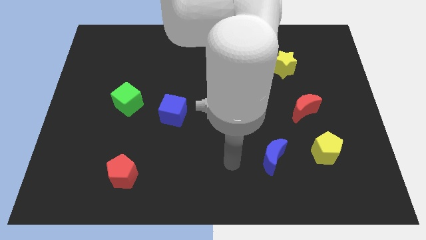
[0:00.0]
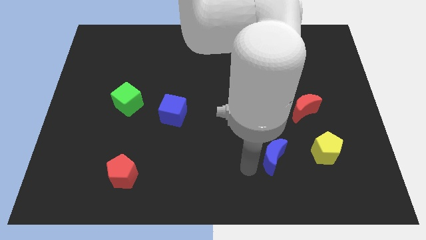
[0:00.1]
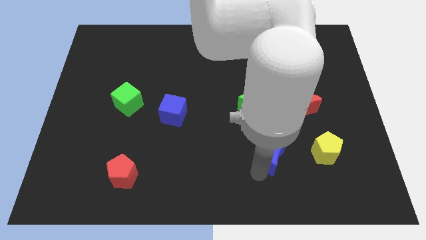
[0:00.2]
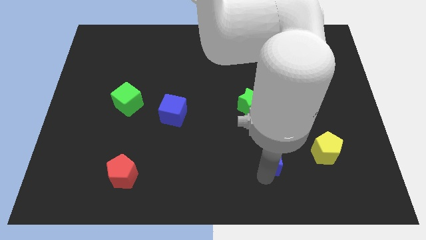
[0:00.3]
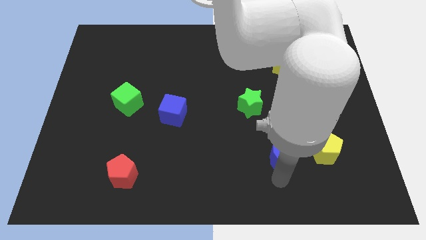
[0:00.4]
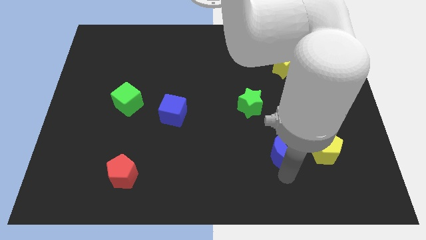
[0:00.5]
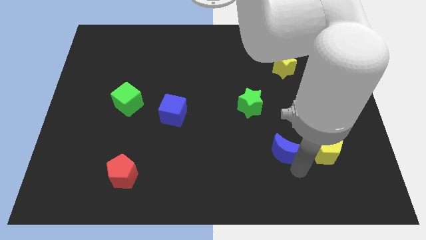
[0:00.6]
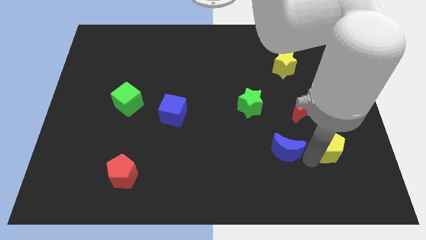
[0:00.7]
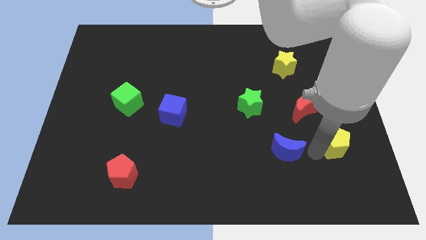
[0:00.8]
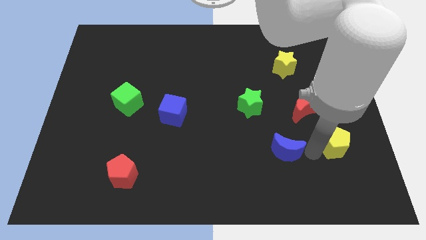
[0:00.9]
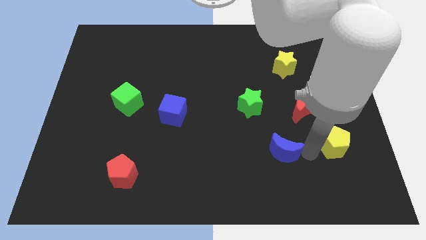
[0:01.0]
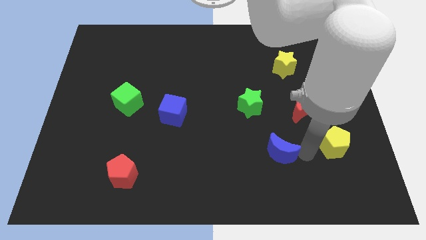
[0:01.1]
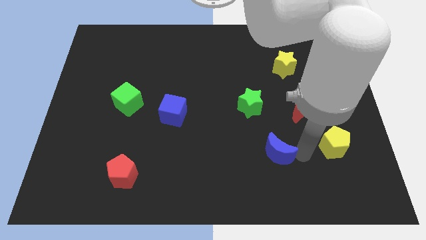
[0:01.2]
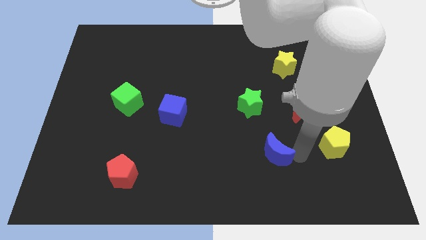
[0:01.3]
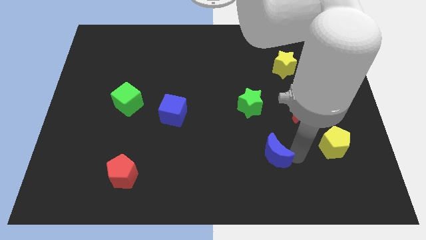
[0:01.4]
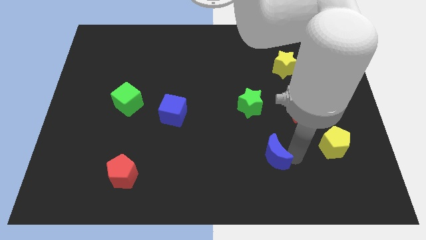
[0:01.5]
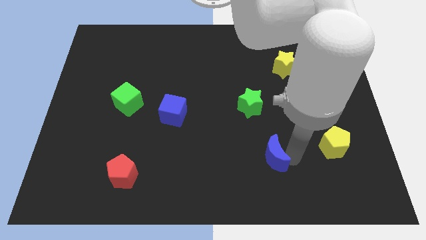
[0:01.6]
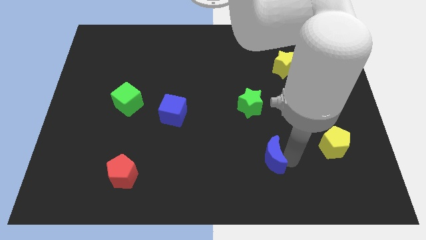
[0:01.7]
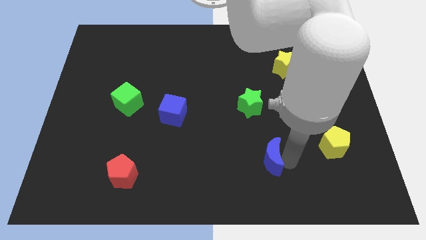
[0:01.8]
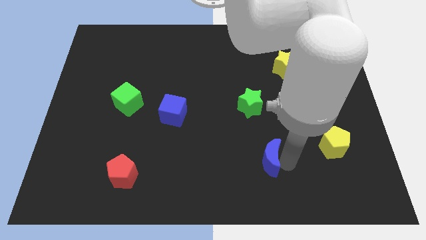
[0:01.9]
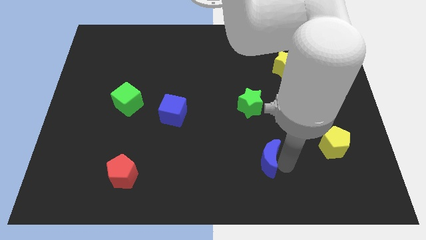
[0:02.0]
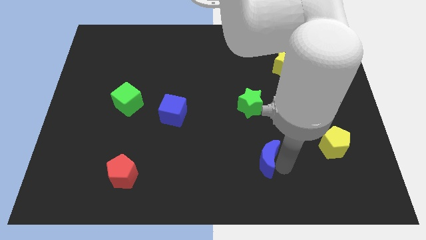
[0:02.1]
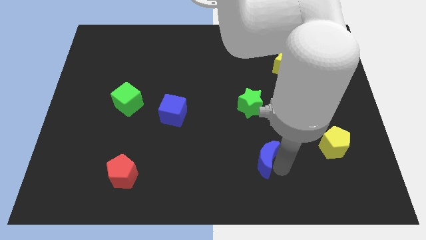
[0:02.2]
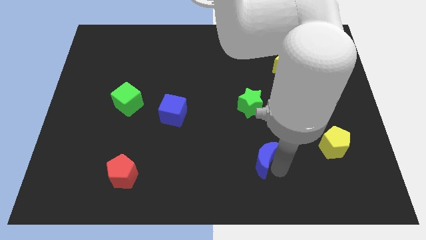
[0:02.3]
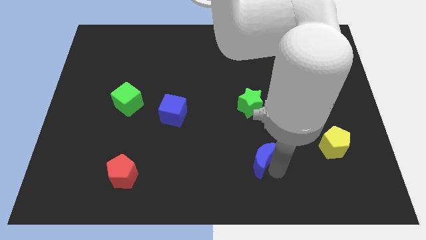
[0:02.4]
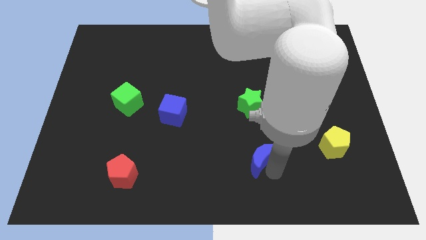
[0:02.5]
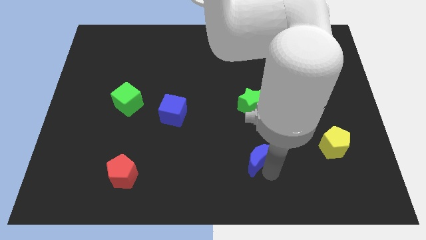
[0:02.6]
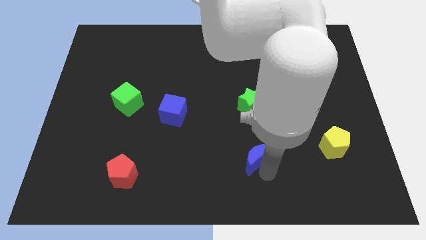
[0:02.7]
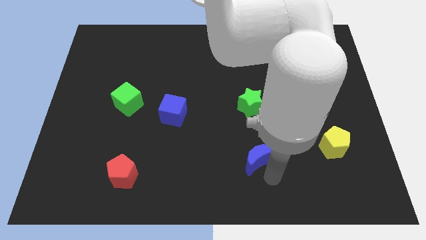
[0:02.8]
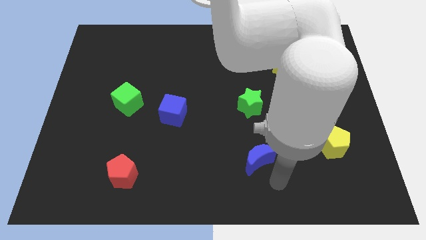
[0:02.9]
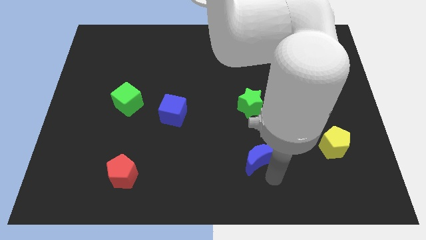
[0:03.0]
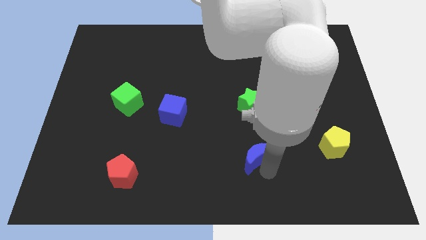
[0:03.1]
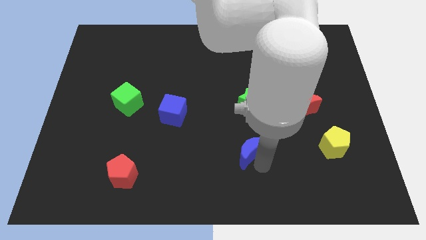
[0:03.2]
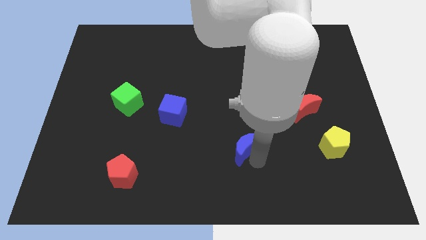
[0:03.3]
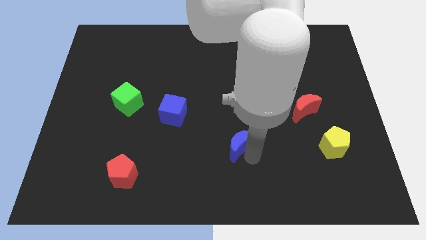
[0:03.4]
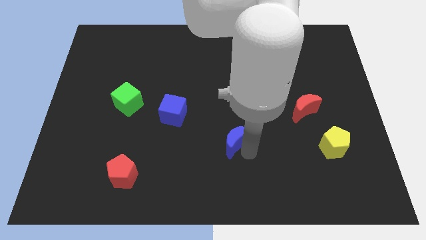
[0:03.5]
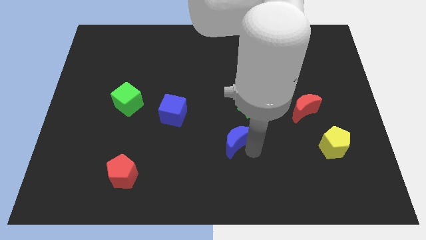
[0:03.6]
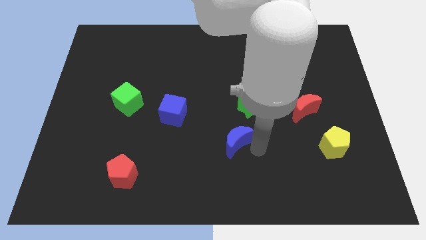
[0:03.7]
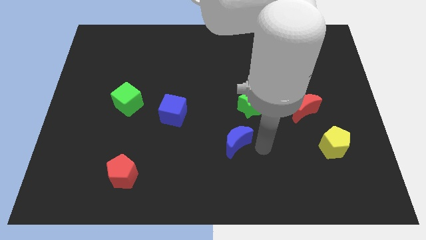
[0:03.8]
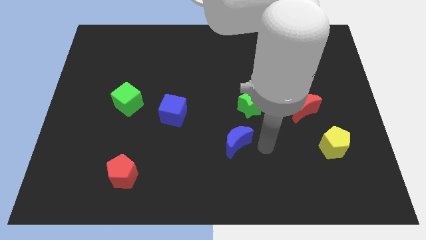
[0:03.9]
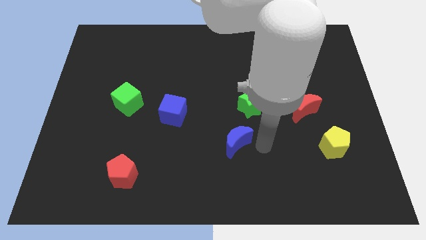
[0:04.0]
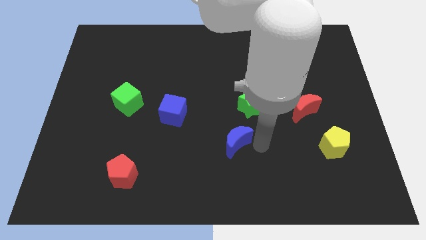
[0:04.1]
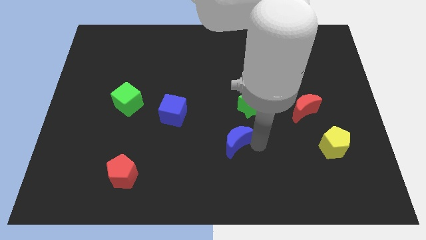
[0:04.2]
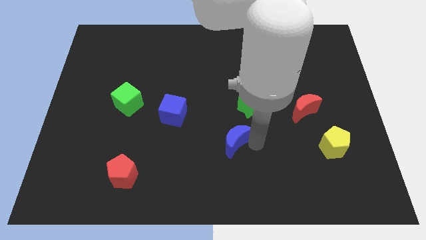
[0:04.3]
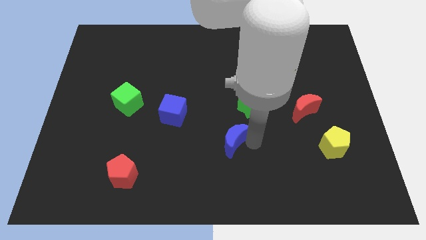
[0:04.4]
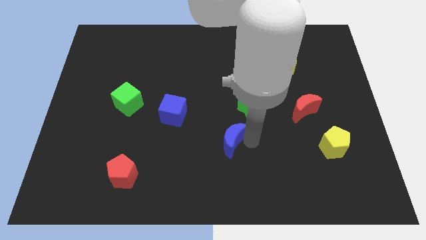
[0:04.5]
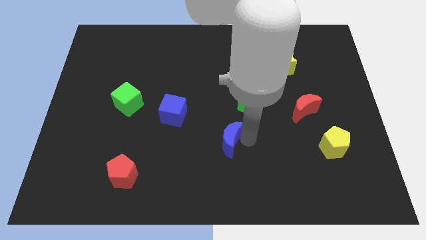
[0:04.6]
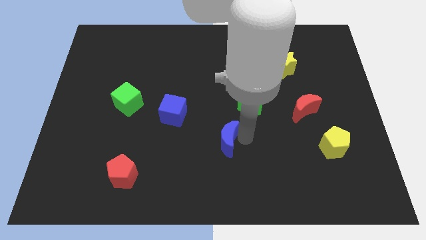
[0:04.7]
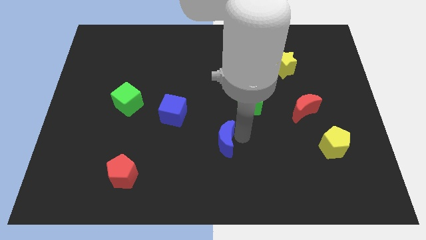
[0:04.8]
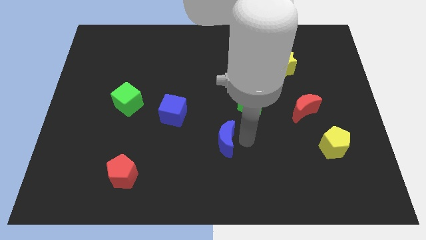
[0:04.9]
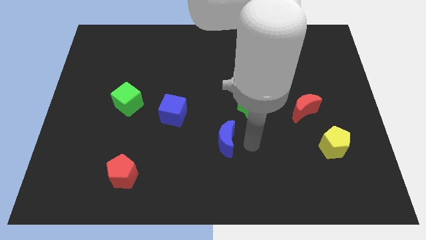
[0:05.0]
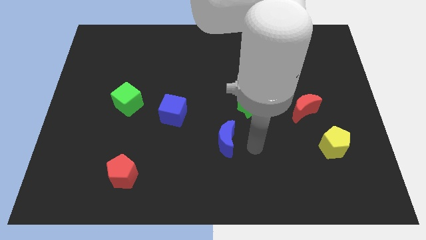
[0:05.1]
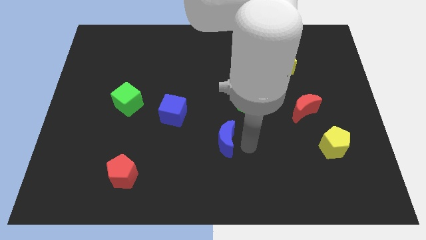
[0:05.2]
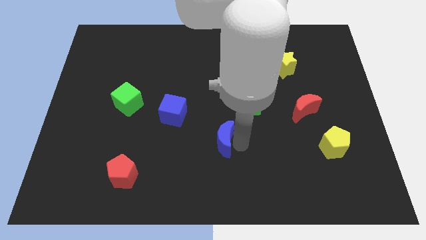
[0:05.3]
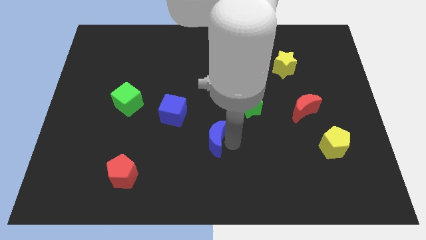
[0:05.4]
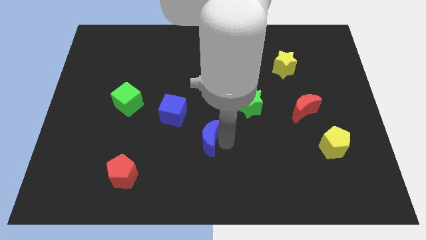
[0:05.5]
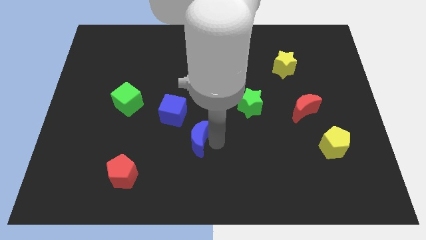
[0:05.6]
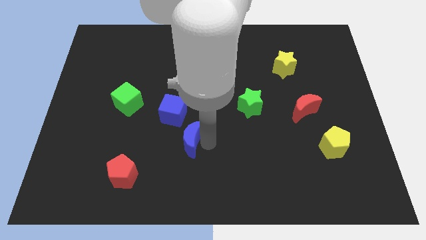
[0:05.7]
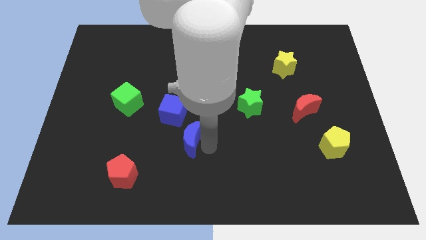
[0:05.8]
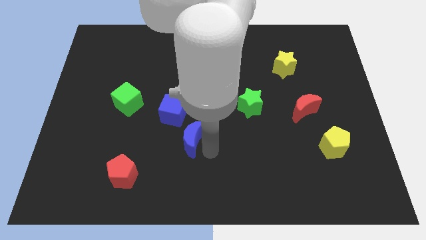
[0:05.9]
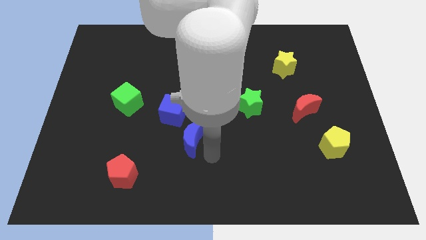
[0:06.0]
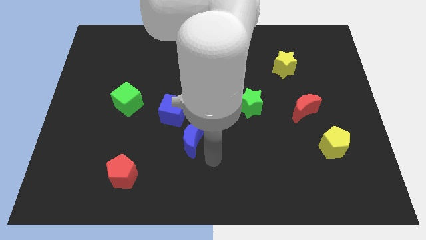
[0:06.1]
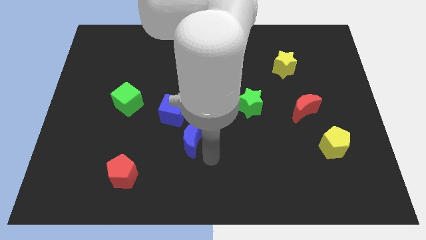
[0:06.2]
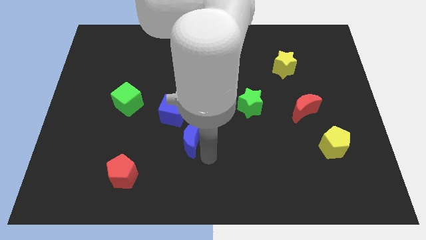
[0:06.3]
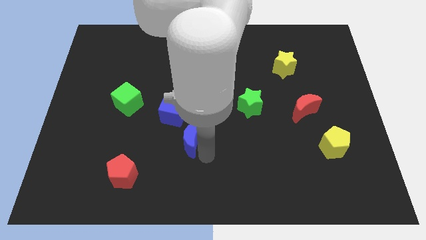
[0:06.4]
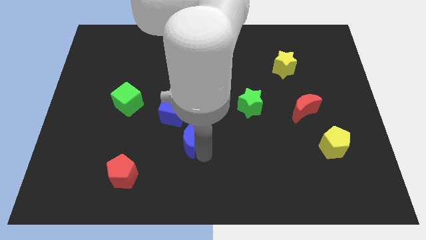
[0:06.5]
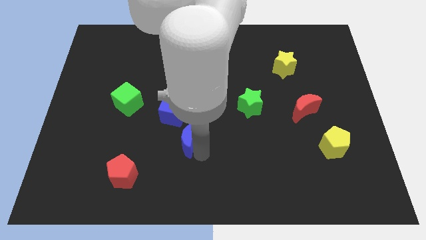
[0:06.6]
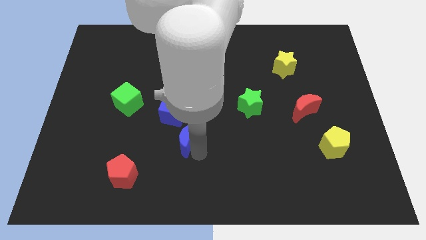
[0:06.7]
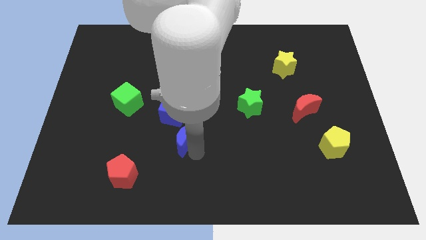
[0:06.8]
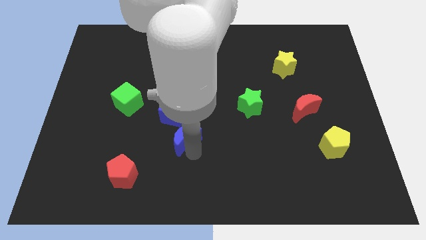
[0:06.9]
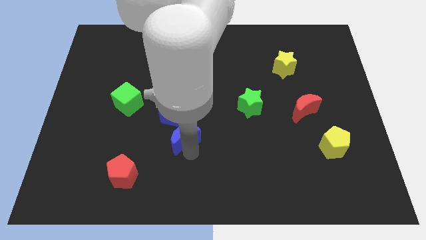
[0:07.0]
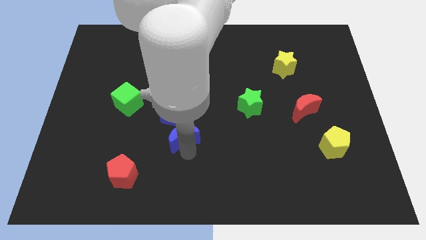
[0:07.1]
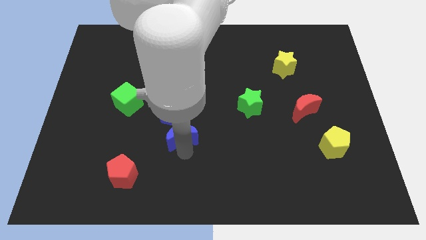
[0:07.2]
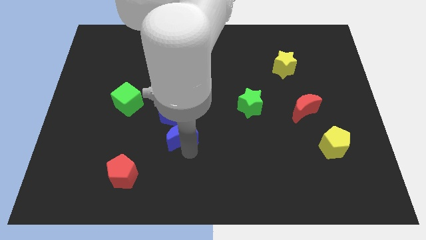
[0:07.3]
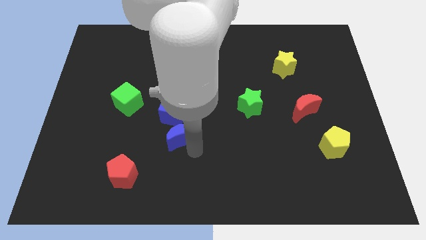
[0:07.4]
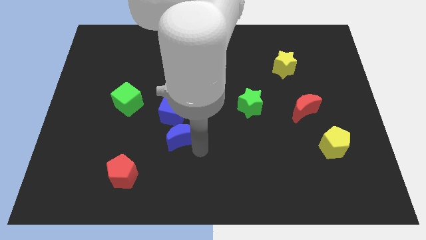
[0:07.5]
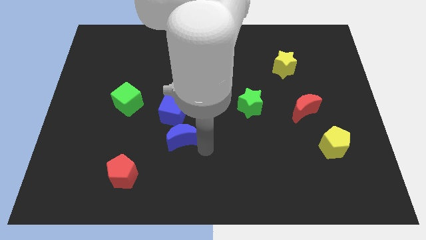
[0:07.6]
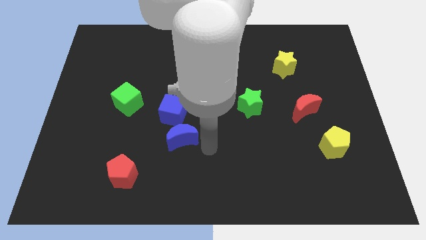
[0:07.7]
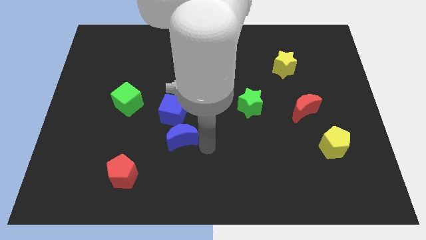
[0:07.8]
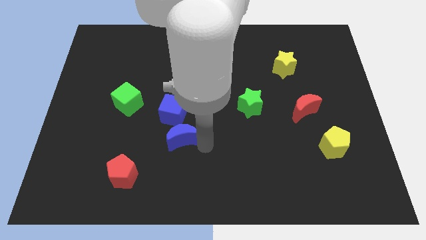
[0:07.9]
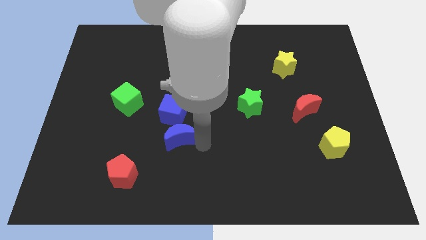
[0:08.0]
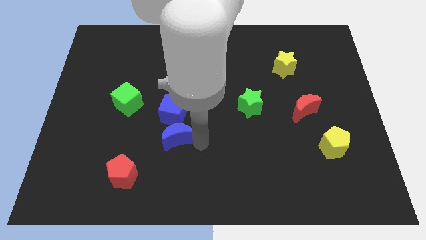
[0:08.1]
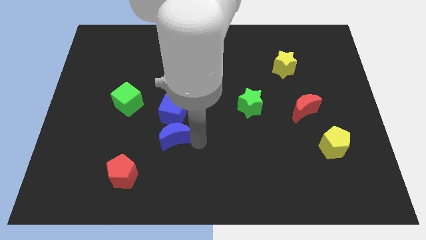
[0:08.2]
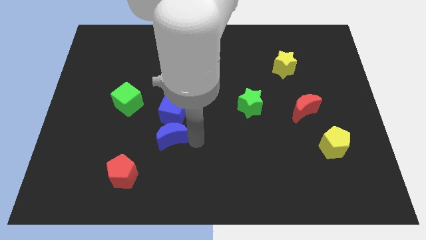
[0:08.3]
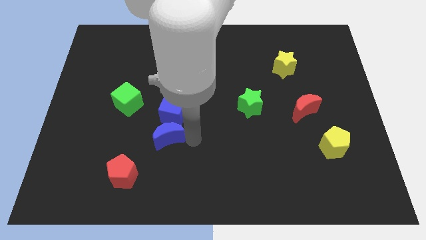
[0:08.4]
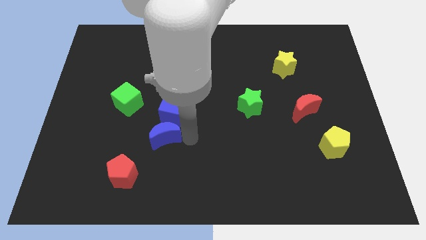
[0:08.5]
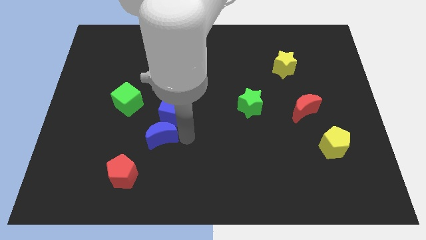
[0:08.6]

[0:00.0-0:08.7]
put the blue moon to the bottom right of the green cube
